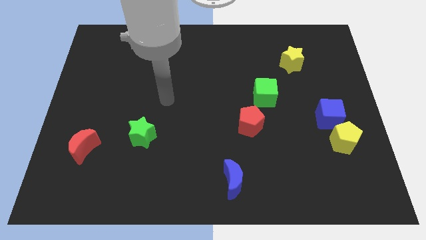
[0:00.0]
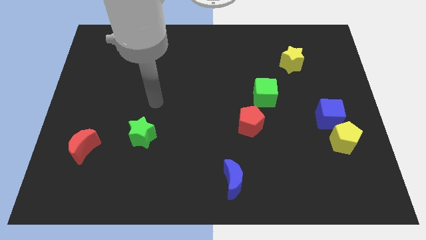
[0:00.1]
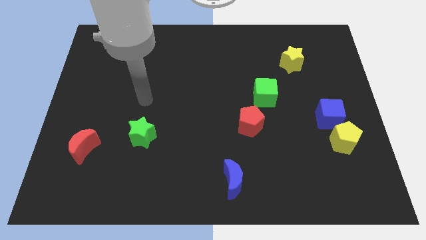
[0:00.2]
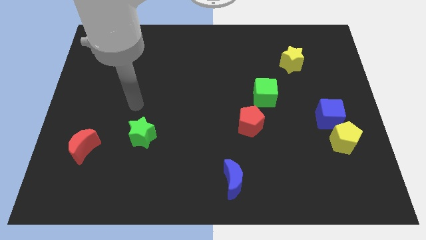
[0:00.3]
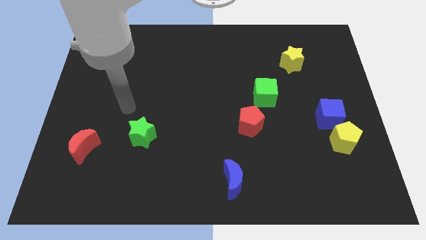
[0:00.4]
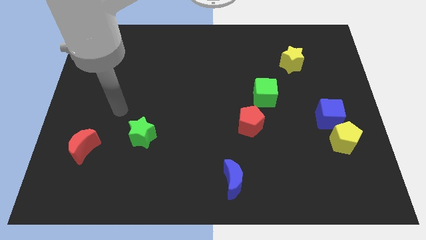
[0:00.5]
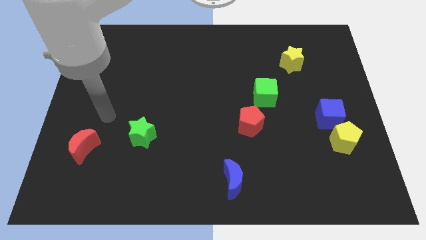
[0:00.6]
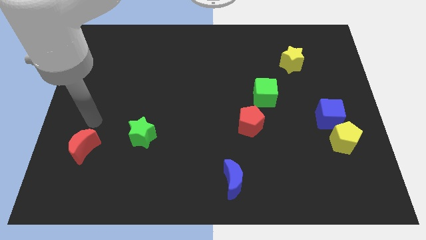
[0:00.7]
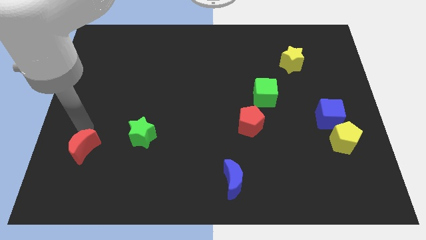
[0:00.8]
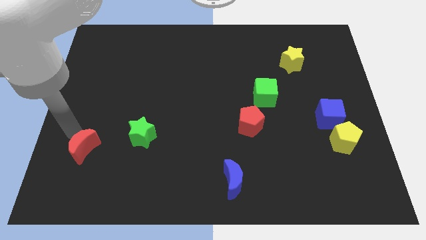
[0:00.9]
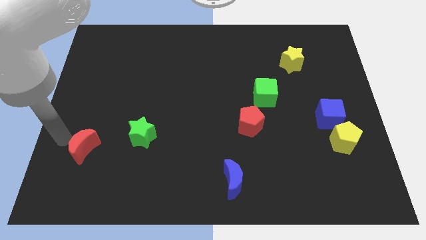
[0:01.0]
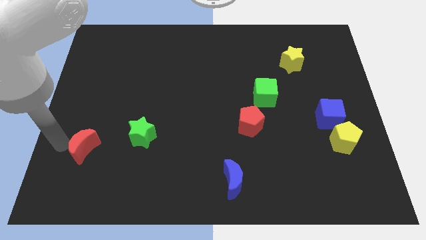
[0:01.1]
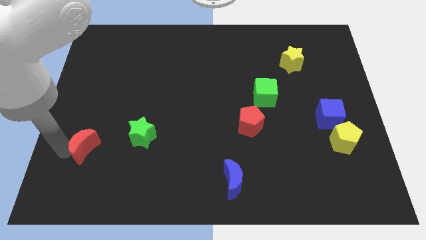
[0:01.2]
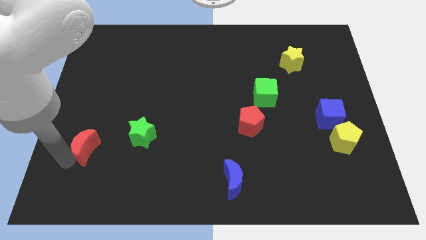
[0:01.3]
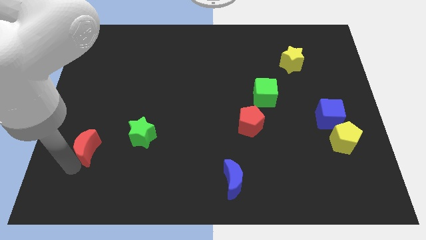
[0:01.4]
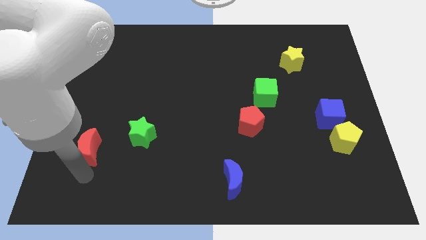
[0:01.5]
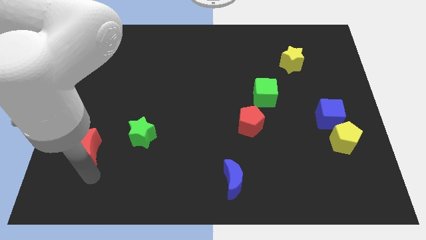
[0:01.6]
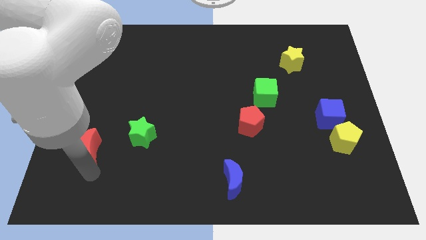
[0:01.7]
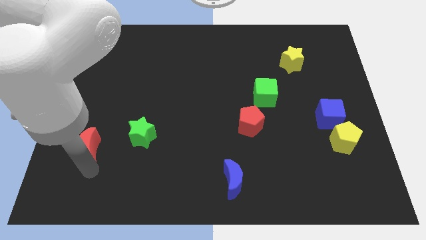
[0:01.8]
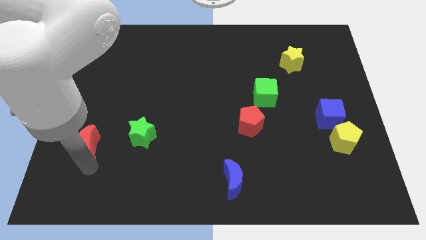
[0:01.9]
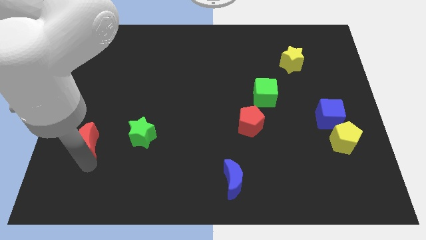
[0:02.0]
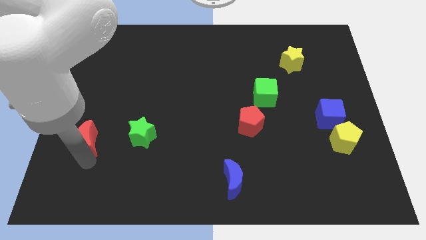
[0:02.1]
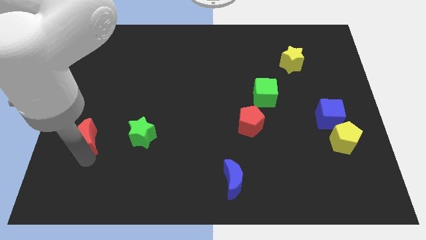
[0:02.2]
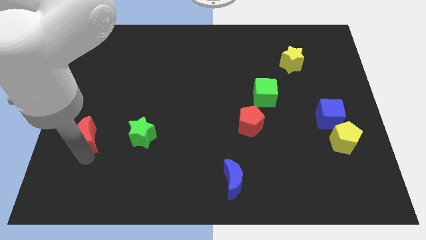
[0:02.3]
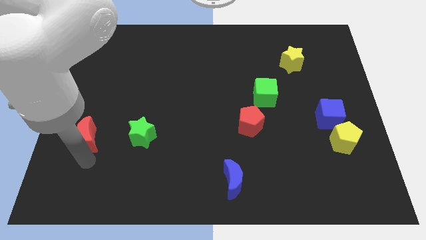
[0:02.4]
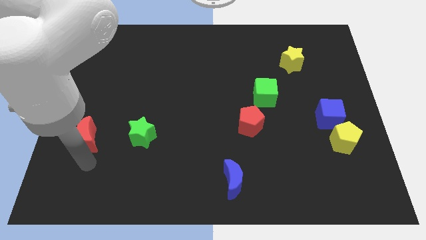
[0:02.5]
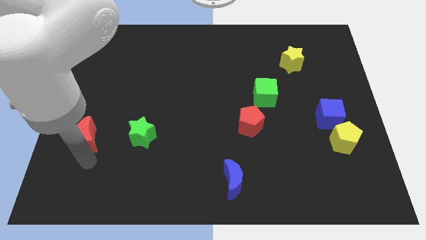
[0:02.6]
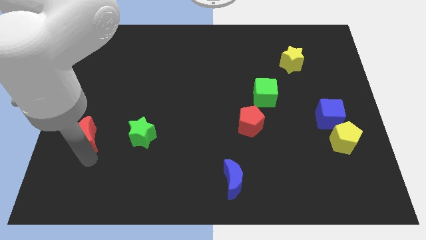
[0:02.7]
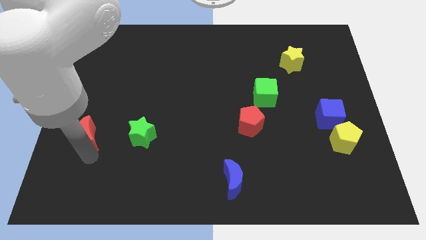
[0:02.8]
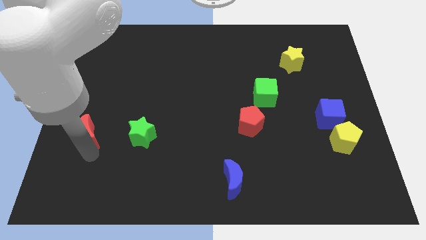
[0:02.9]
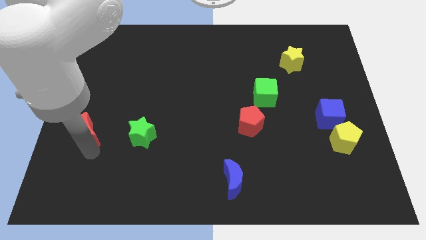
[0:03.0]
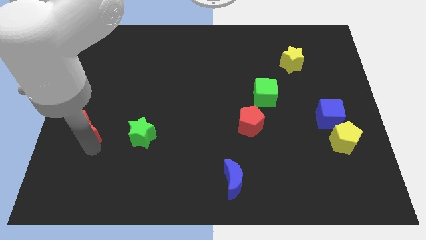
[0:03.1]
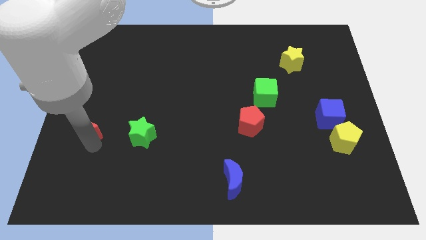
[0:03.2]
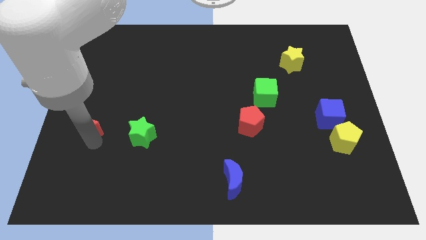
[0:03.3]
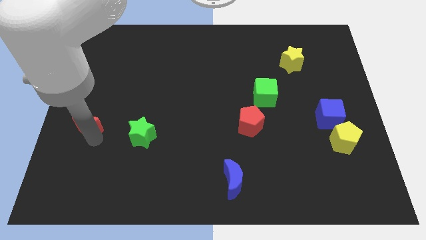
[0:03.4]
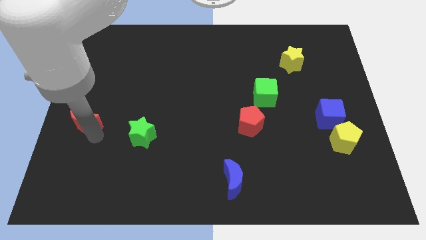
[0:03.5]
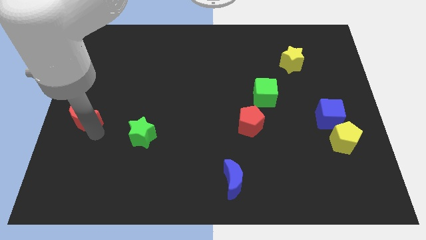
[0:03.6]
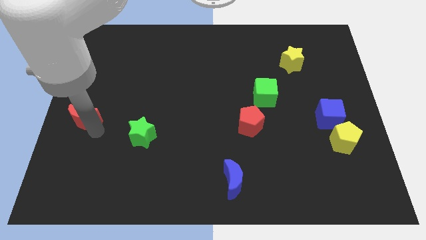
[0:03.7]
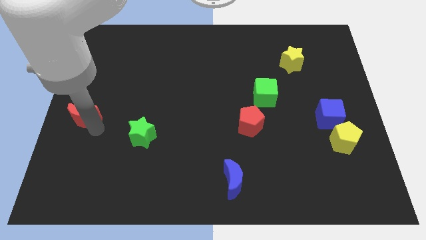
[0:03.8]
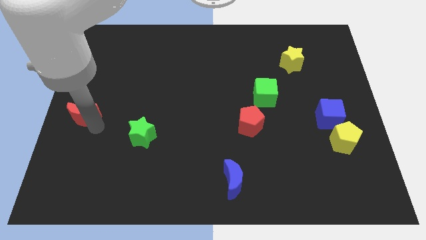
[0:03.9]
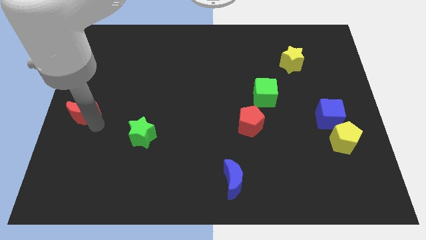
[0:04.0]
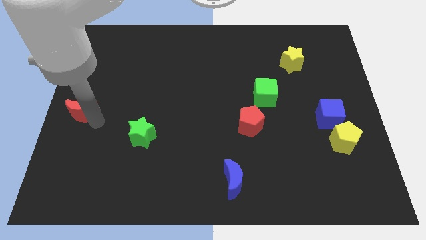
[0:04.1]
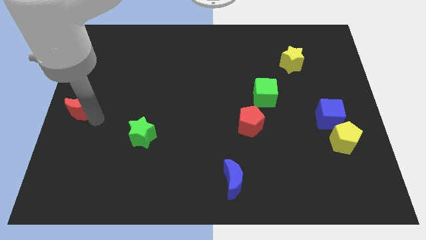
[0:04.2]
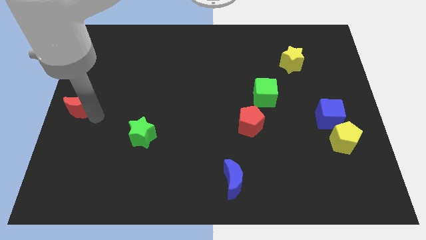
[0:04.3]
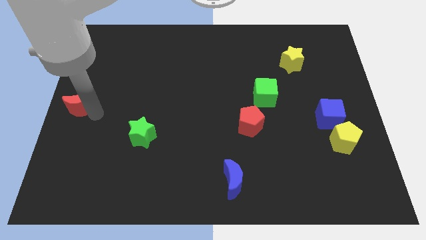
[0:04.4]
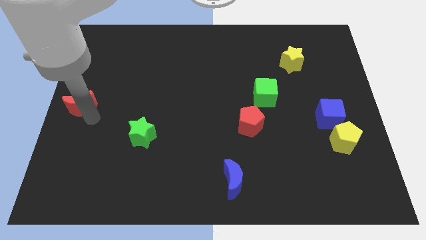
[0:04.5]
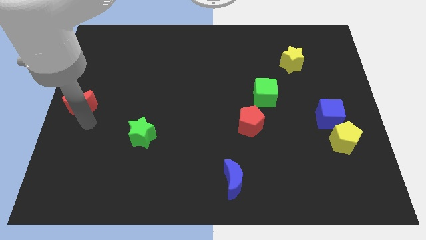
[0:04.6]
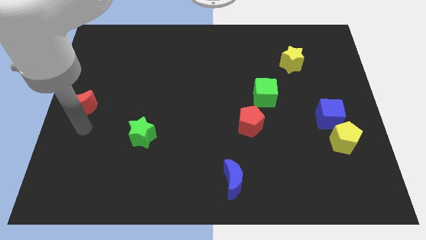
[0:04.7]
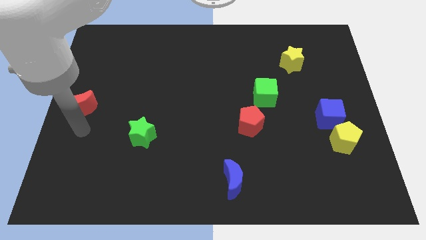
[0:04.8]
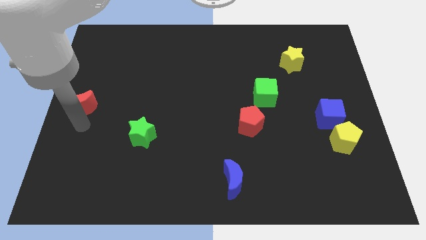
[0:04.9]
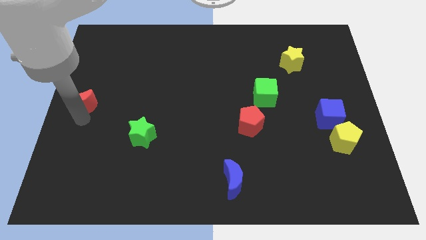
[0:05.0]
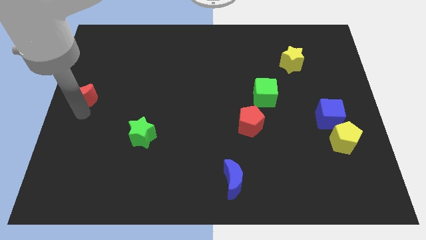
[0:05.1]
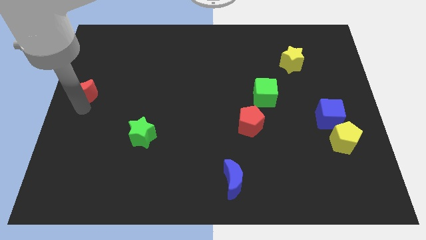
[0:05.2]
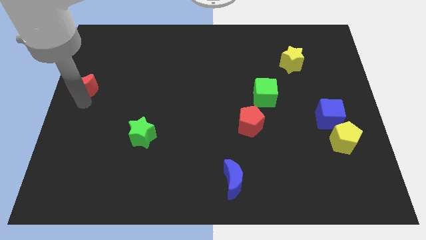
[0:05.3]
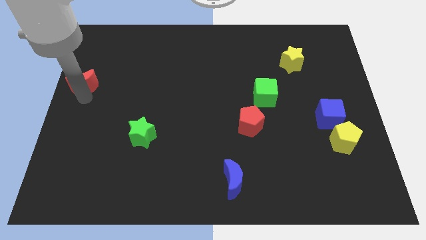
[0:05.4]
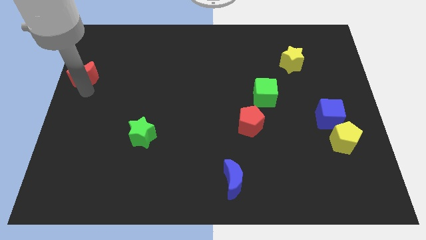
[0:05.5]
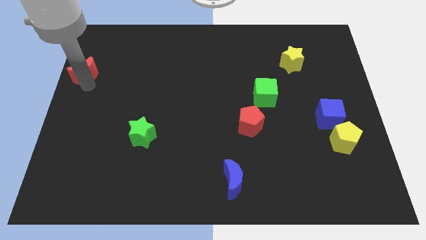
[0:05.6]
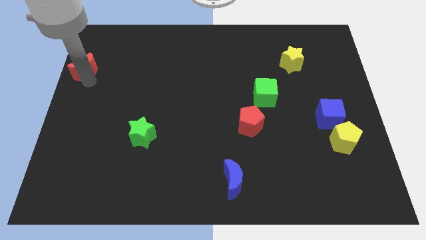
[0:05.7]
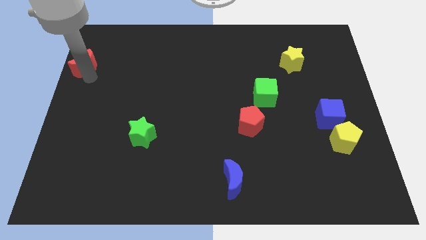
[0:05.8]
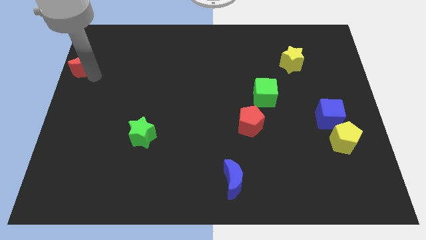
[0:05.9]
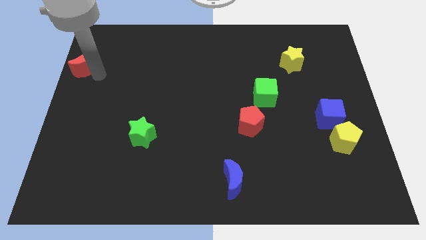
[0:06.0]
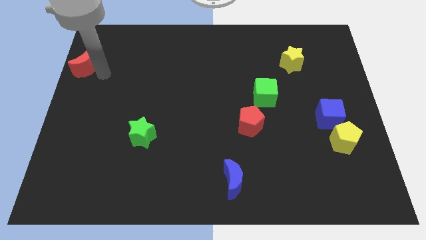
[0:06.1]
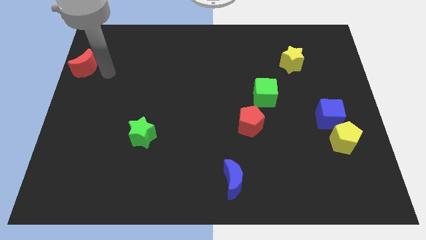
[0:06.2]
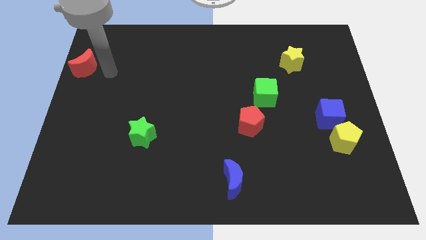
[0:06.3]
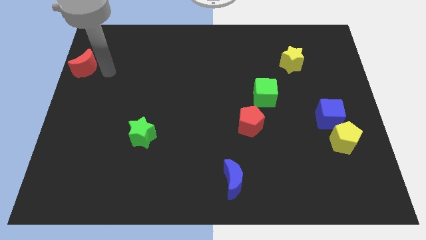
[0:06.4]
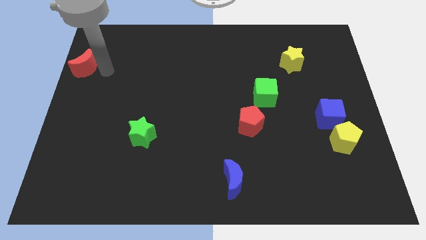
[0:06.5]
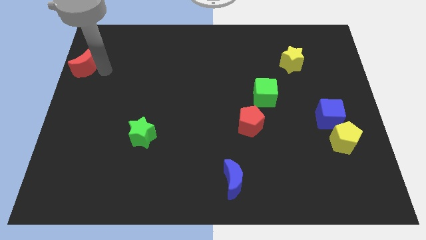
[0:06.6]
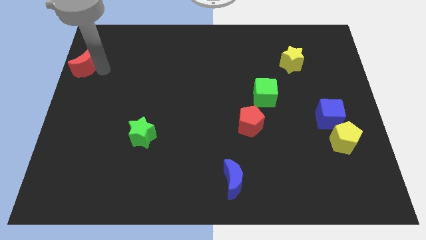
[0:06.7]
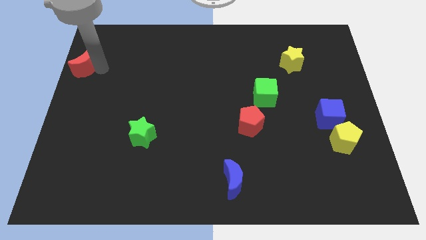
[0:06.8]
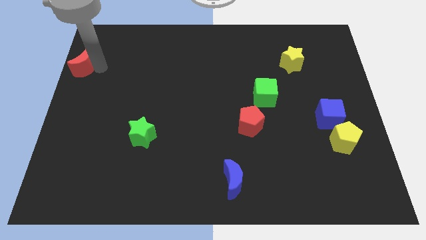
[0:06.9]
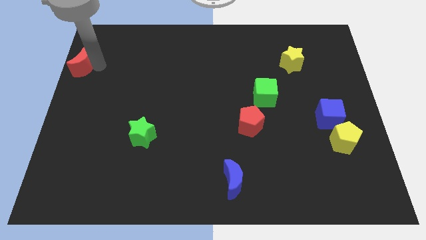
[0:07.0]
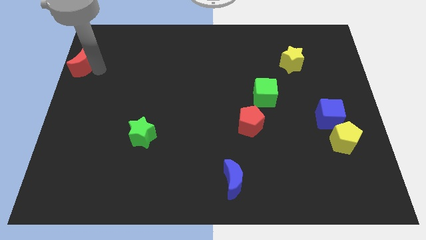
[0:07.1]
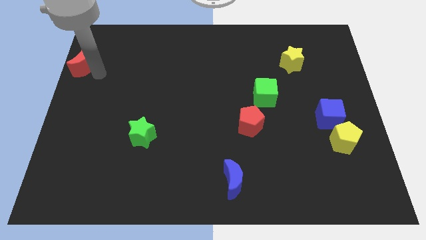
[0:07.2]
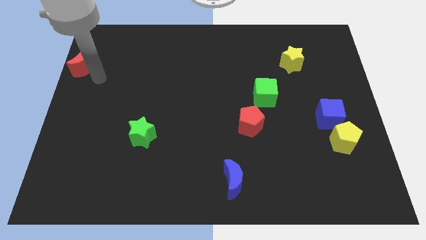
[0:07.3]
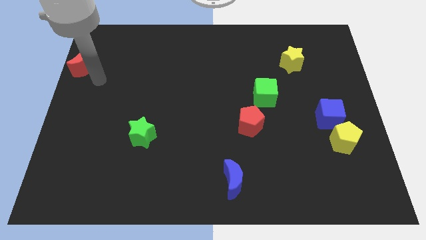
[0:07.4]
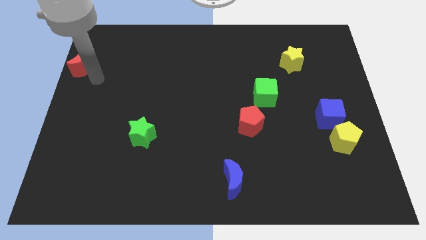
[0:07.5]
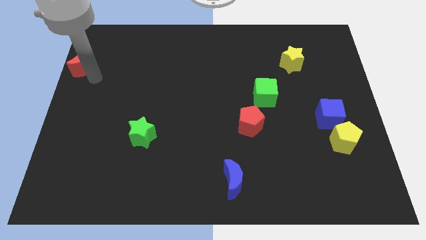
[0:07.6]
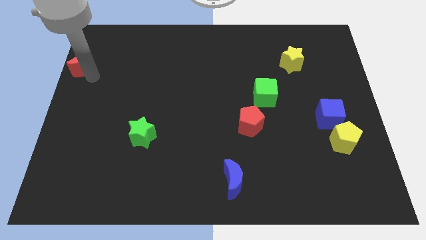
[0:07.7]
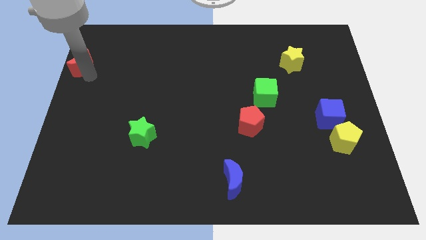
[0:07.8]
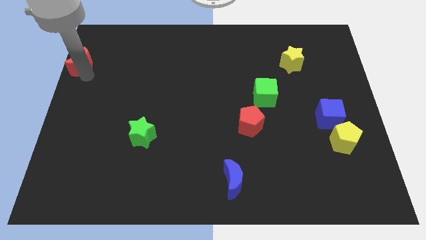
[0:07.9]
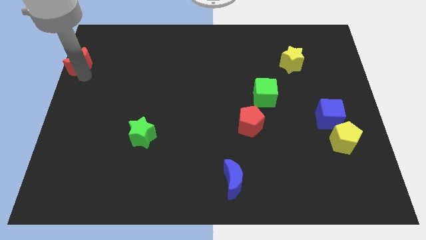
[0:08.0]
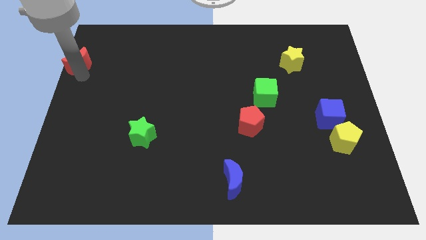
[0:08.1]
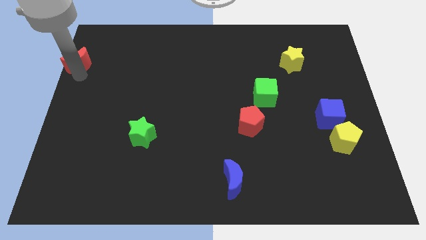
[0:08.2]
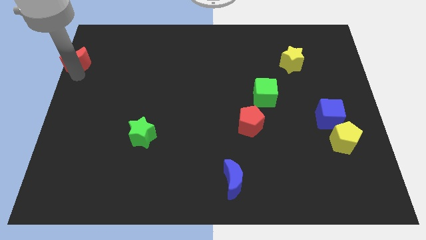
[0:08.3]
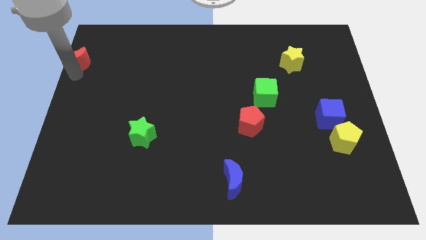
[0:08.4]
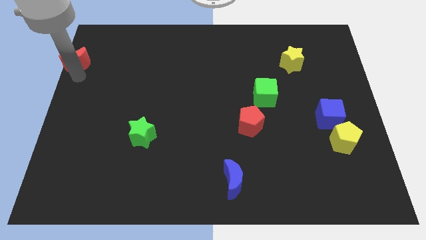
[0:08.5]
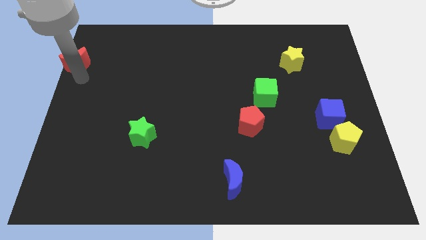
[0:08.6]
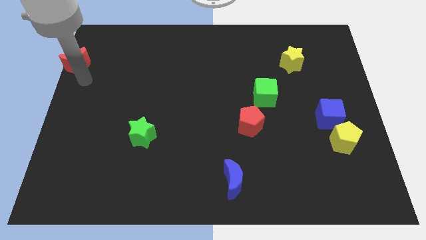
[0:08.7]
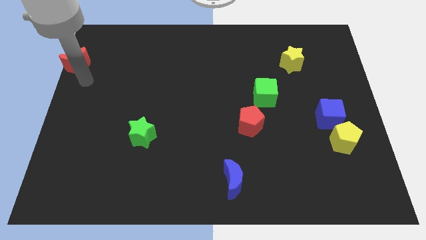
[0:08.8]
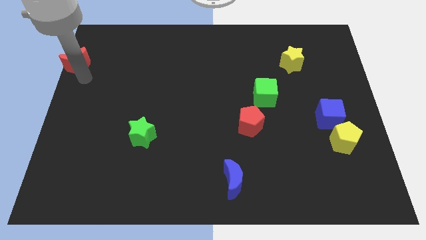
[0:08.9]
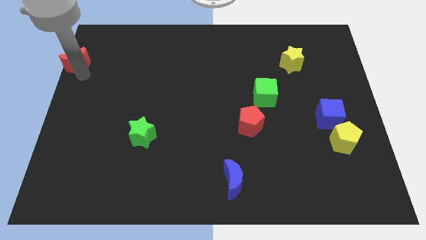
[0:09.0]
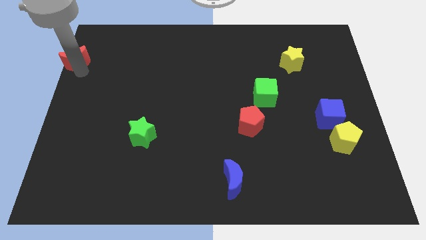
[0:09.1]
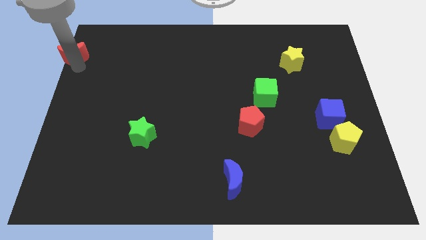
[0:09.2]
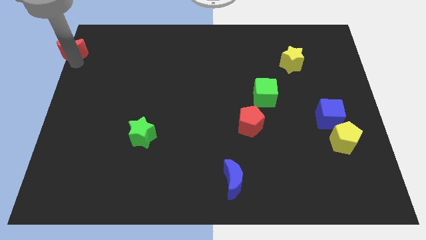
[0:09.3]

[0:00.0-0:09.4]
put the red moon to the top left corner
